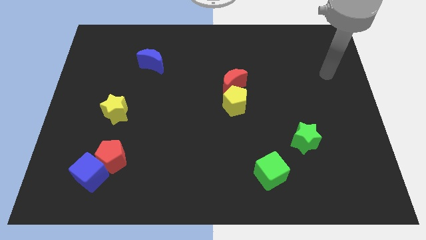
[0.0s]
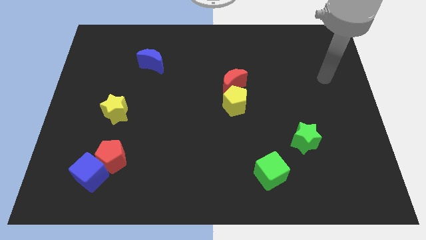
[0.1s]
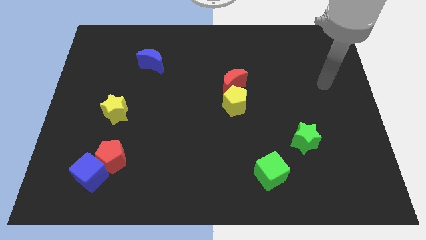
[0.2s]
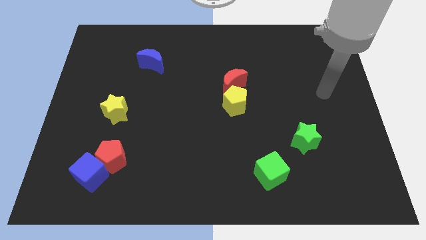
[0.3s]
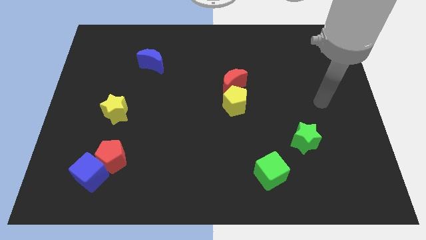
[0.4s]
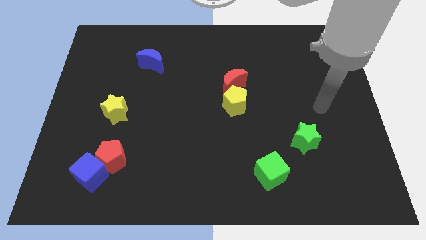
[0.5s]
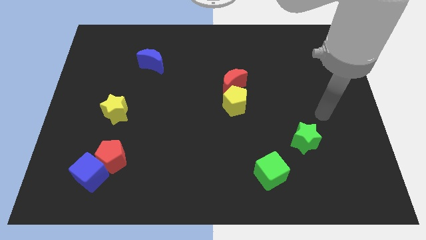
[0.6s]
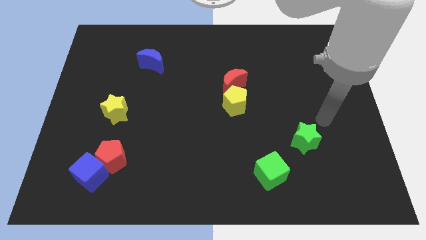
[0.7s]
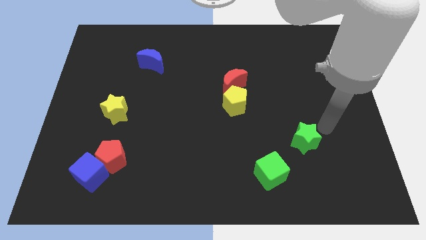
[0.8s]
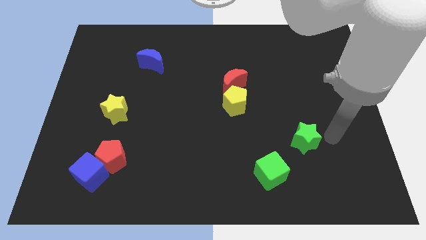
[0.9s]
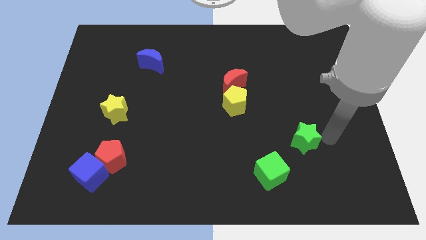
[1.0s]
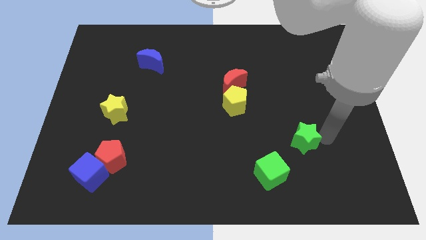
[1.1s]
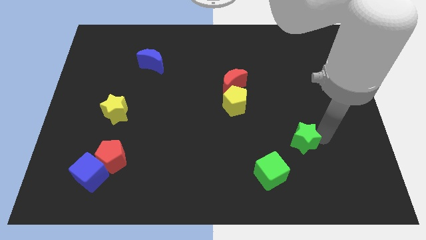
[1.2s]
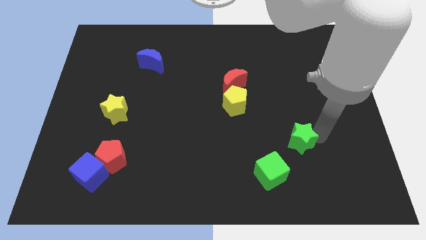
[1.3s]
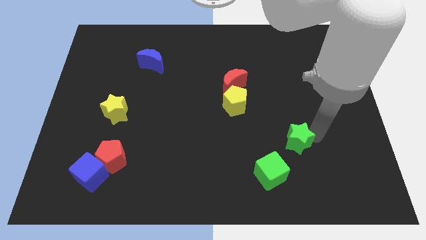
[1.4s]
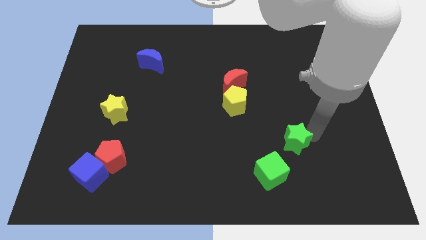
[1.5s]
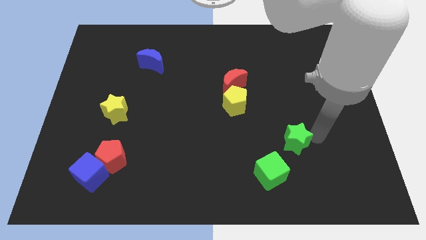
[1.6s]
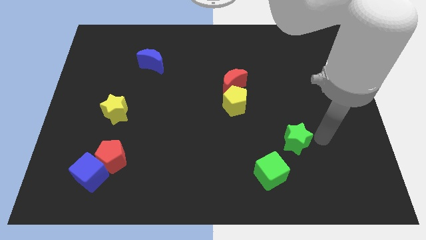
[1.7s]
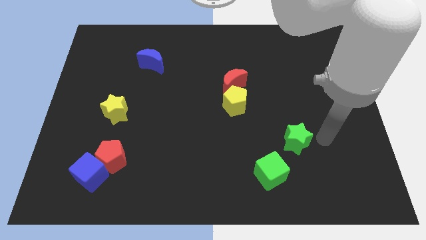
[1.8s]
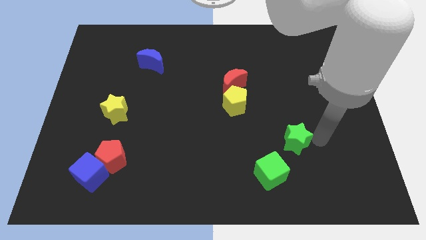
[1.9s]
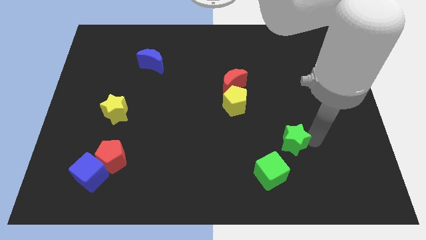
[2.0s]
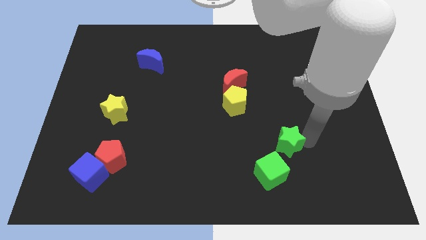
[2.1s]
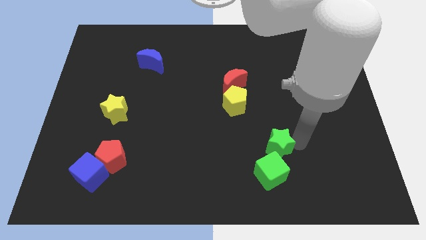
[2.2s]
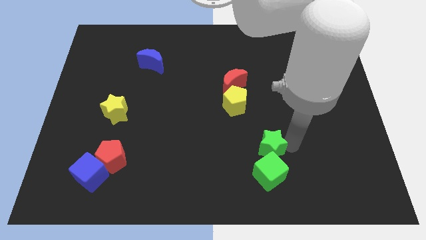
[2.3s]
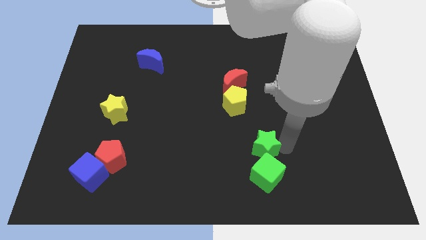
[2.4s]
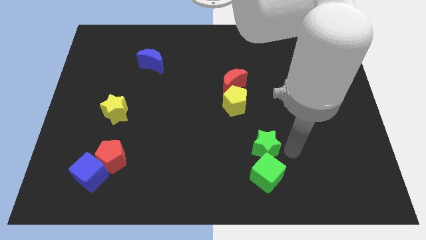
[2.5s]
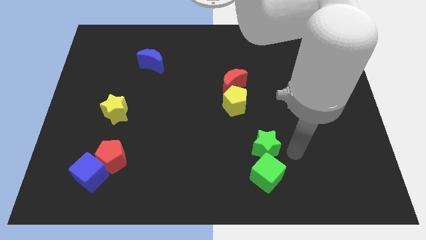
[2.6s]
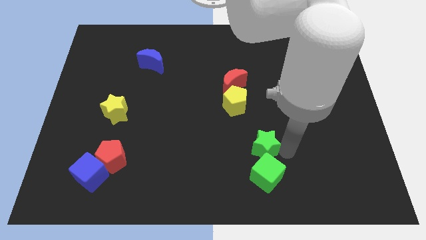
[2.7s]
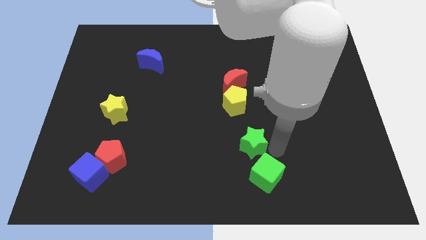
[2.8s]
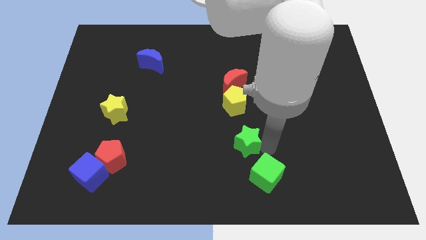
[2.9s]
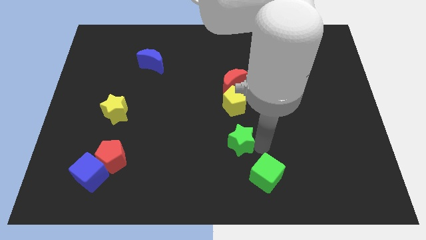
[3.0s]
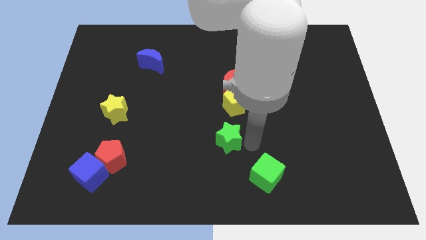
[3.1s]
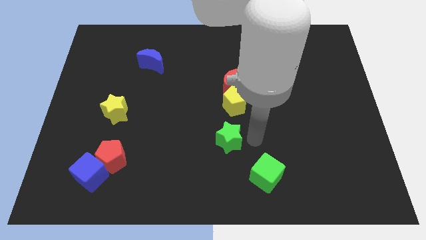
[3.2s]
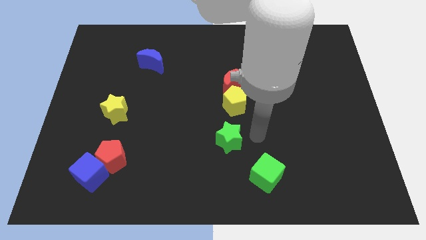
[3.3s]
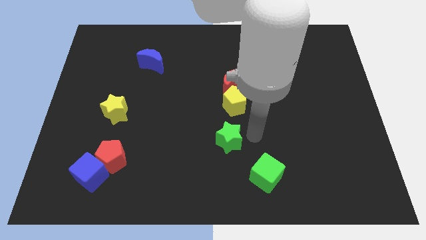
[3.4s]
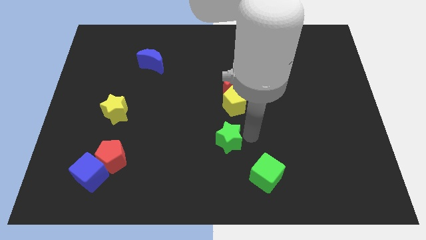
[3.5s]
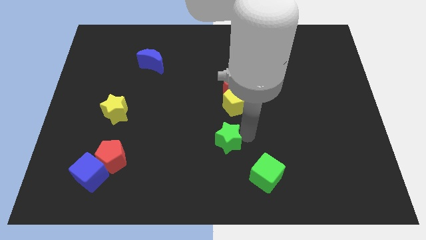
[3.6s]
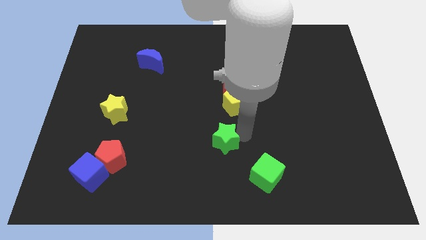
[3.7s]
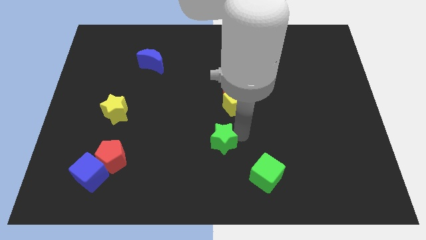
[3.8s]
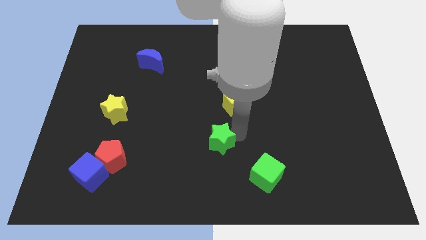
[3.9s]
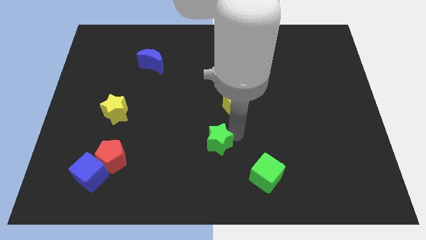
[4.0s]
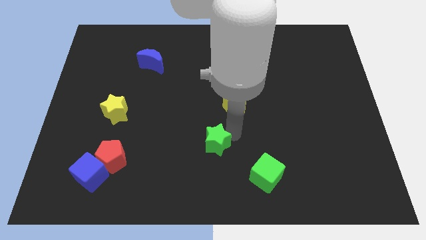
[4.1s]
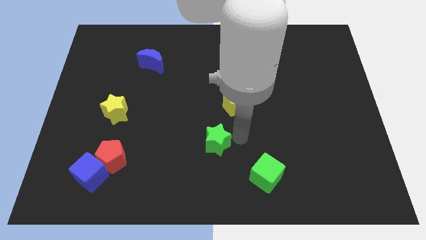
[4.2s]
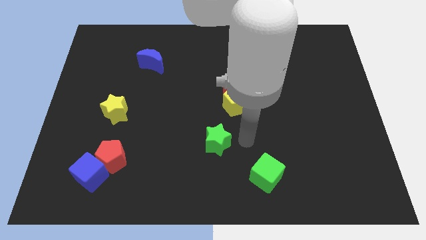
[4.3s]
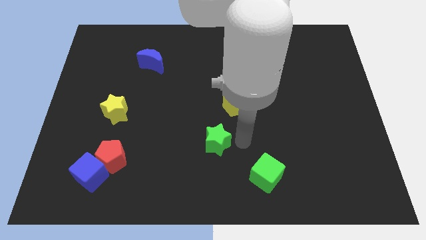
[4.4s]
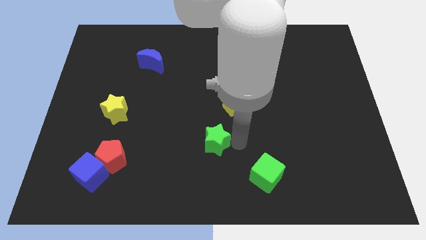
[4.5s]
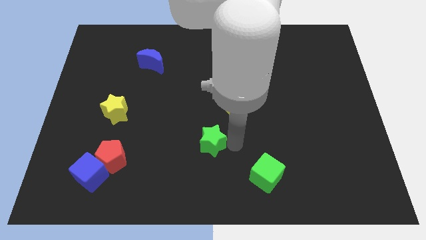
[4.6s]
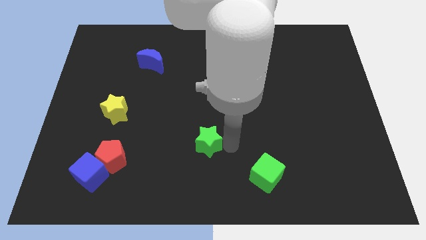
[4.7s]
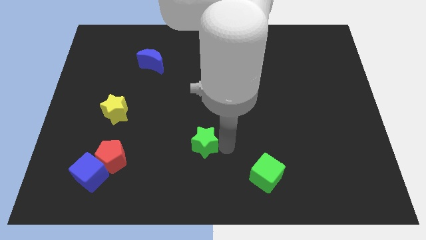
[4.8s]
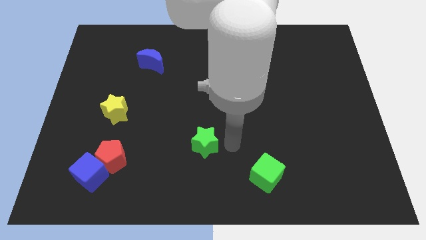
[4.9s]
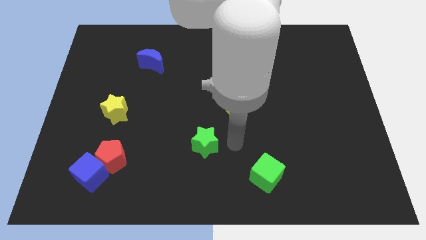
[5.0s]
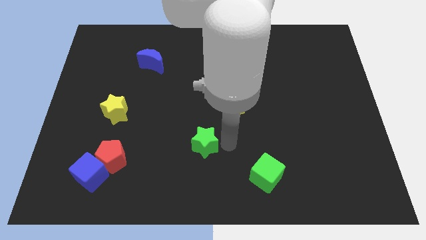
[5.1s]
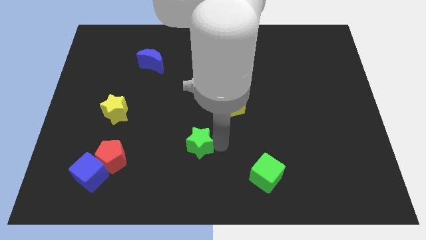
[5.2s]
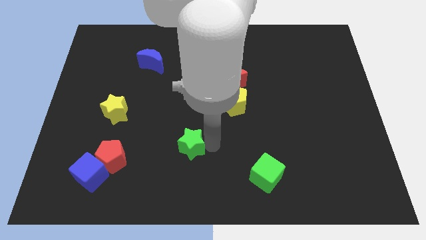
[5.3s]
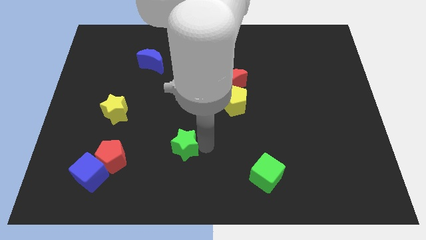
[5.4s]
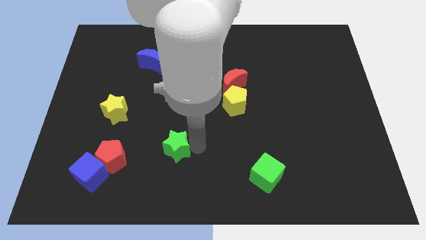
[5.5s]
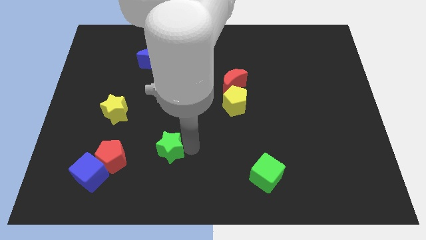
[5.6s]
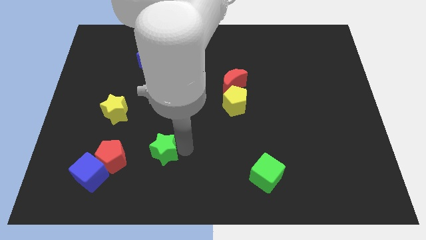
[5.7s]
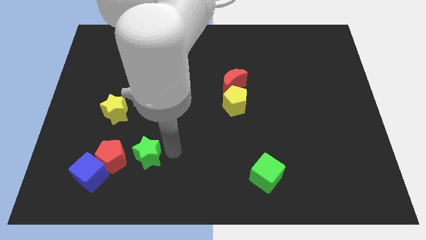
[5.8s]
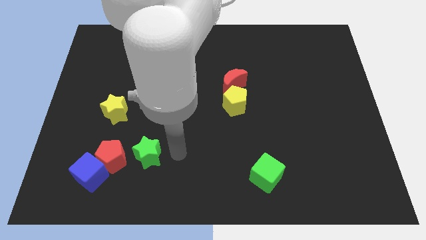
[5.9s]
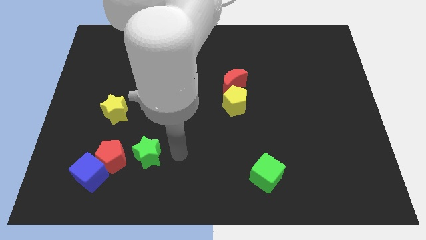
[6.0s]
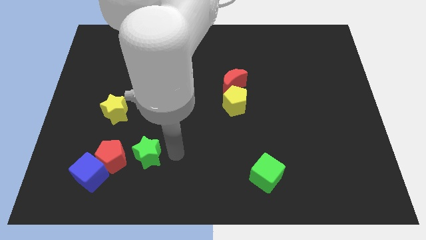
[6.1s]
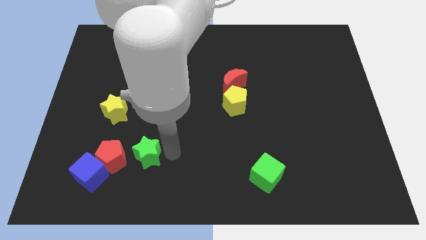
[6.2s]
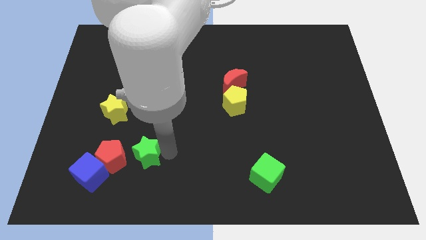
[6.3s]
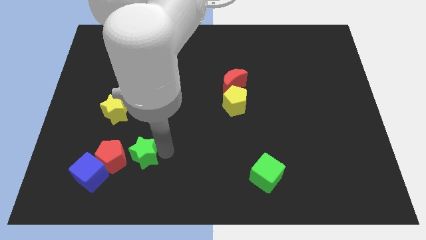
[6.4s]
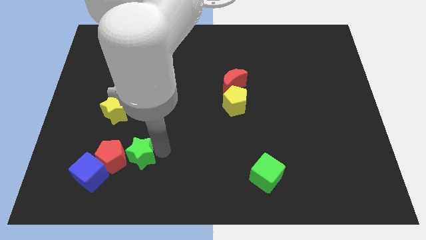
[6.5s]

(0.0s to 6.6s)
push the green star towards the red pentagon

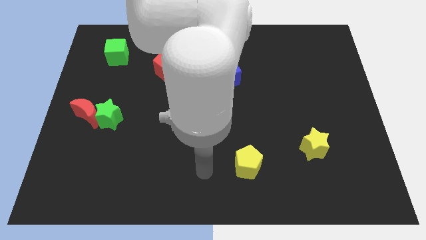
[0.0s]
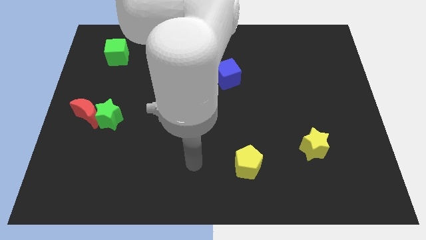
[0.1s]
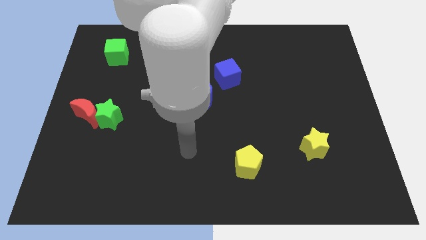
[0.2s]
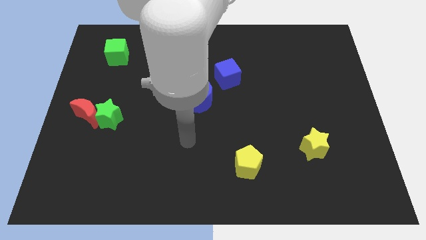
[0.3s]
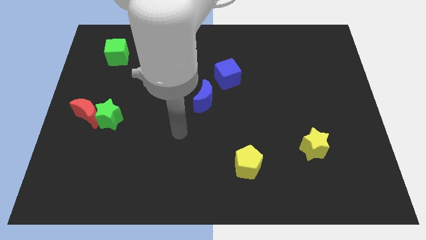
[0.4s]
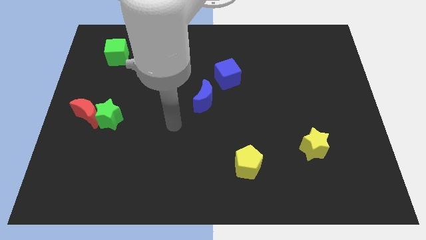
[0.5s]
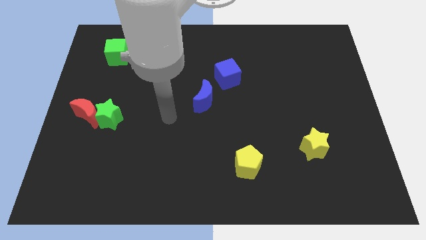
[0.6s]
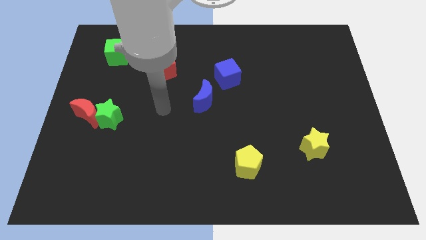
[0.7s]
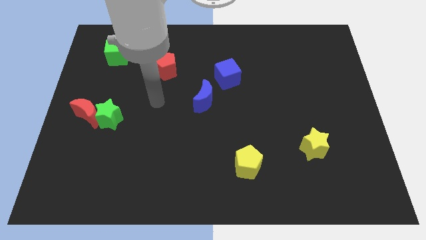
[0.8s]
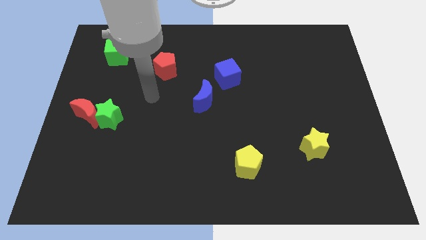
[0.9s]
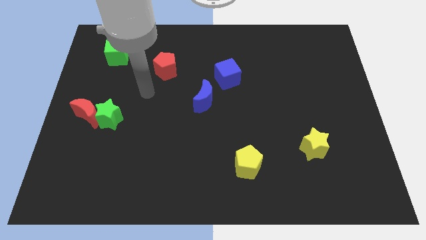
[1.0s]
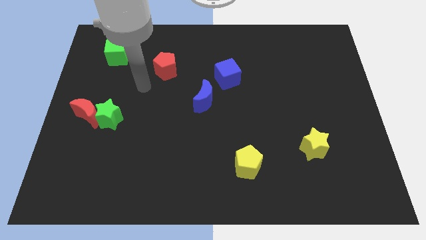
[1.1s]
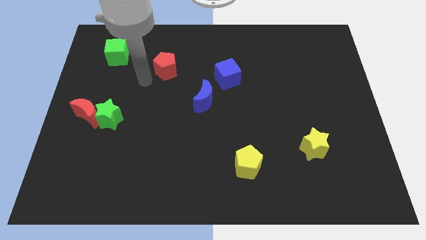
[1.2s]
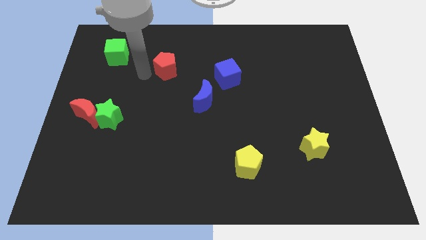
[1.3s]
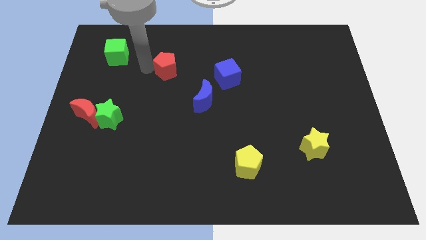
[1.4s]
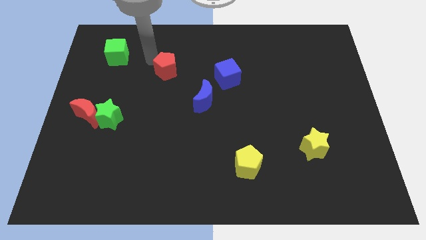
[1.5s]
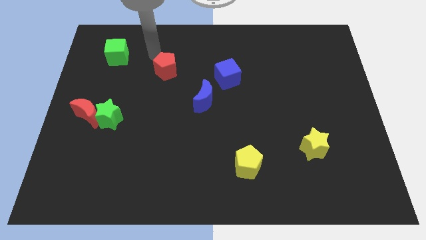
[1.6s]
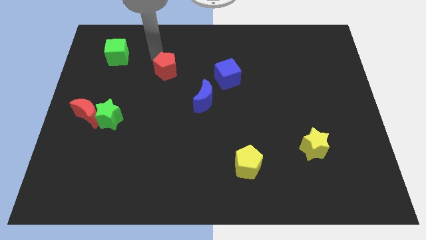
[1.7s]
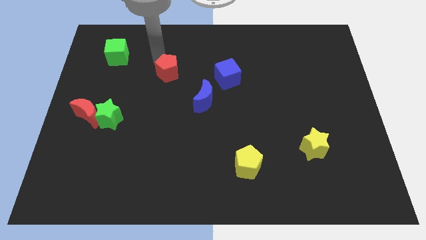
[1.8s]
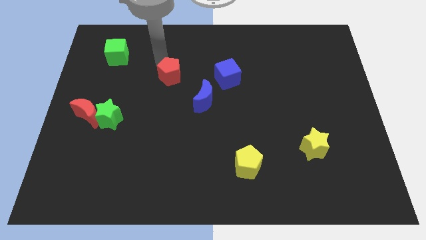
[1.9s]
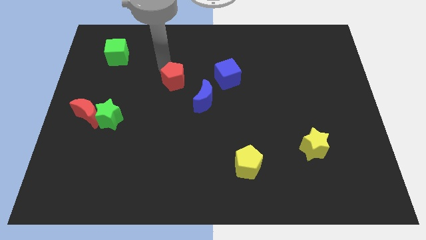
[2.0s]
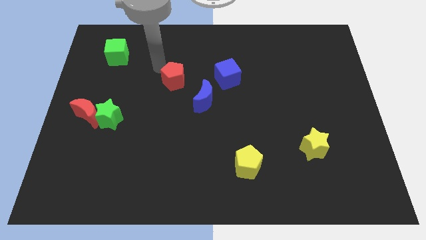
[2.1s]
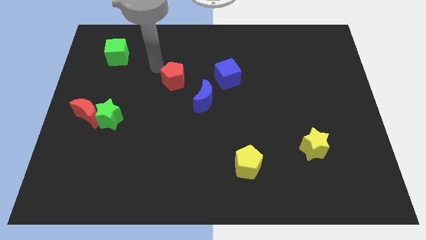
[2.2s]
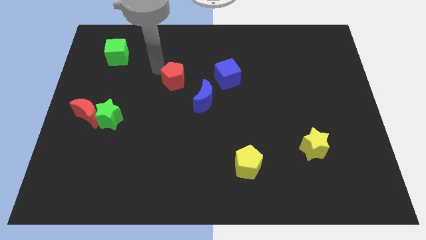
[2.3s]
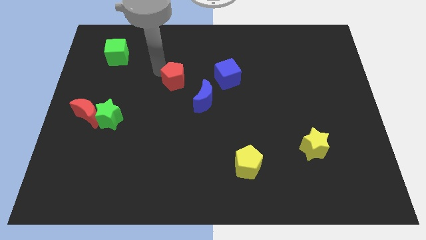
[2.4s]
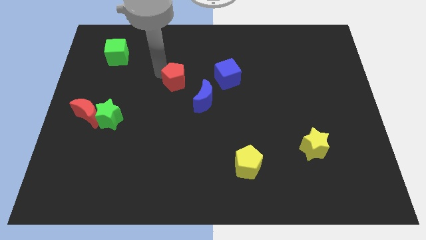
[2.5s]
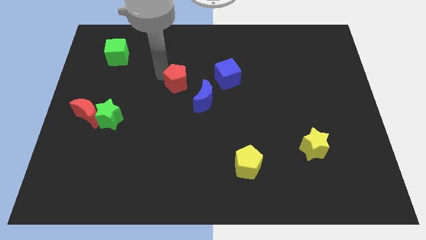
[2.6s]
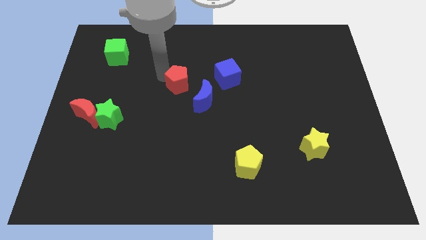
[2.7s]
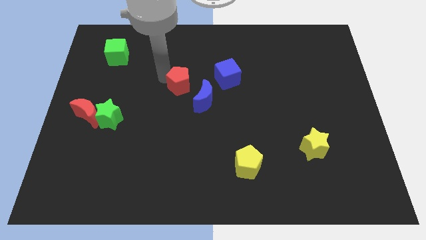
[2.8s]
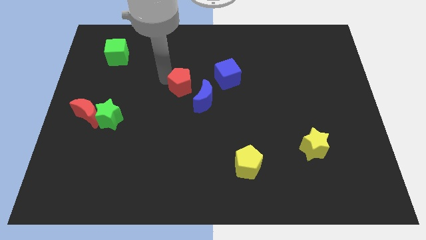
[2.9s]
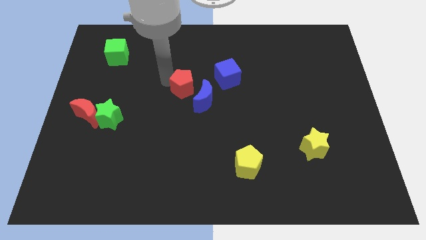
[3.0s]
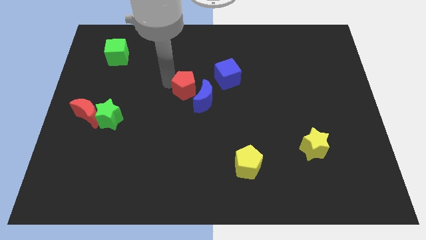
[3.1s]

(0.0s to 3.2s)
put the red pentagon to the blue moon
